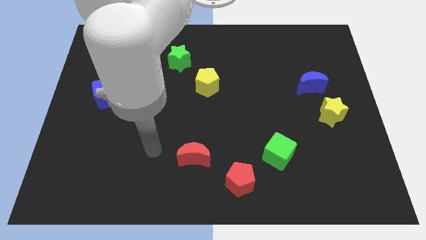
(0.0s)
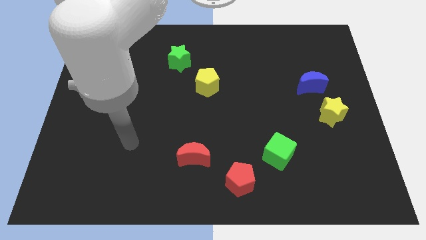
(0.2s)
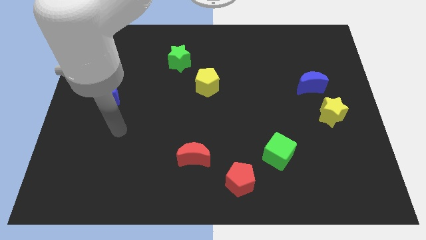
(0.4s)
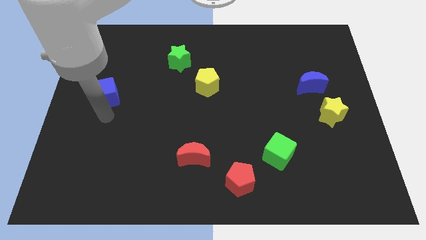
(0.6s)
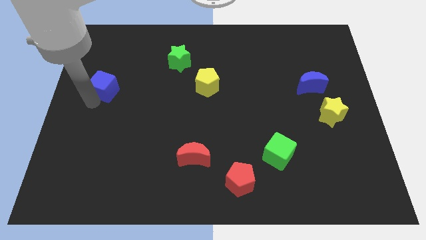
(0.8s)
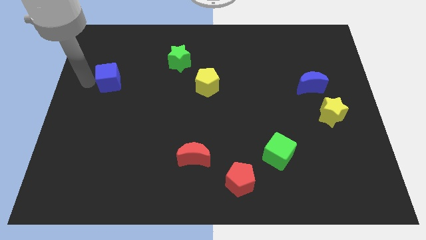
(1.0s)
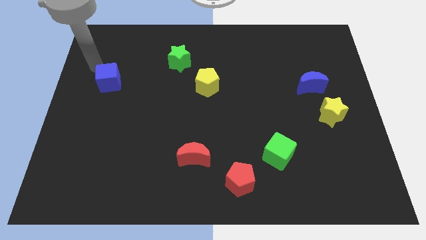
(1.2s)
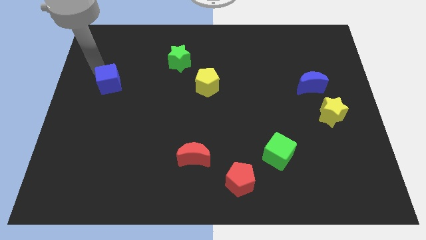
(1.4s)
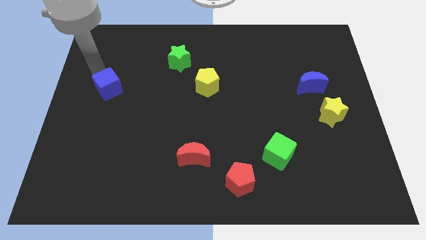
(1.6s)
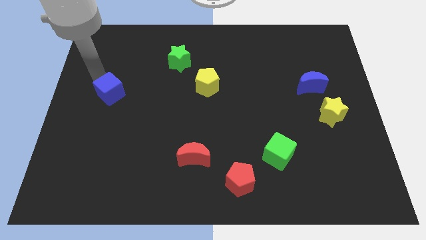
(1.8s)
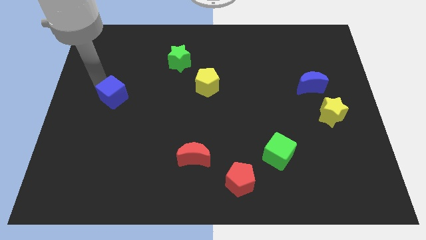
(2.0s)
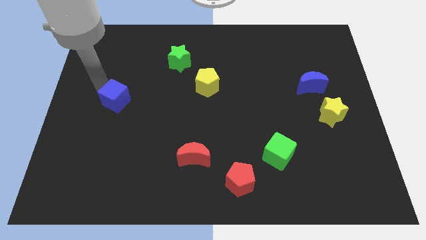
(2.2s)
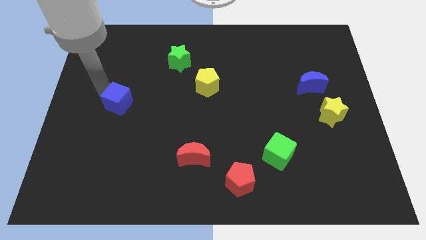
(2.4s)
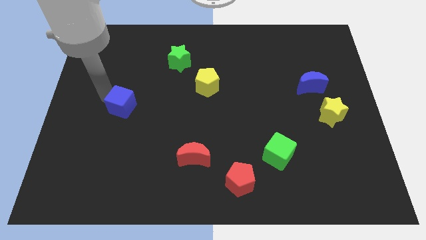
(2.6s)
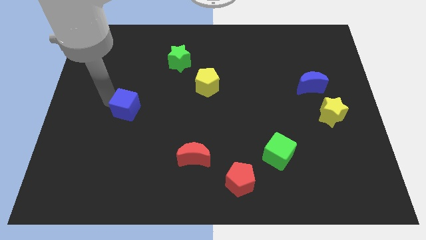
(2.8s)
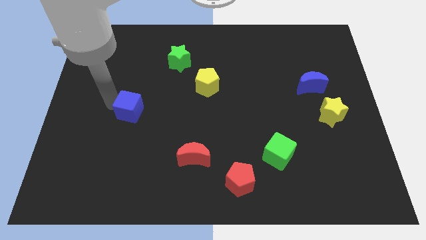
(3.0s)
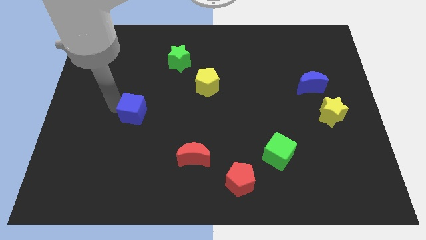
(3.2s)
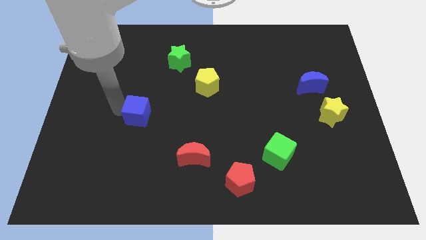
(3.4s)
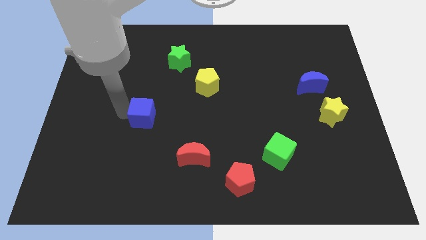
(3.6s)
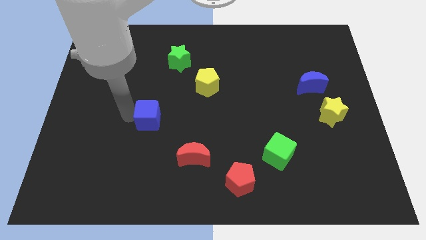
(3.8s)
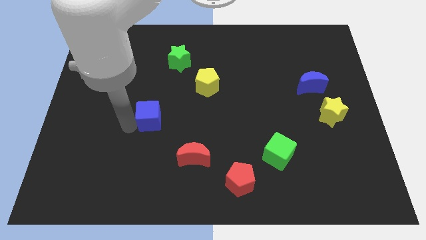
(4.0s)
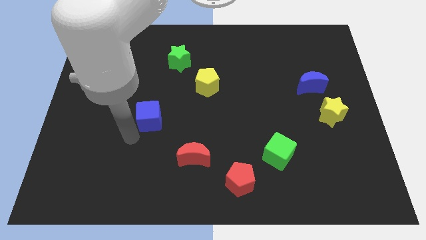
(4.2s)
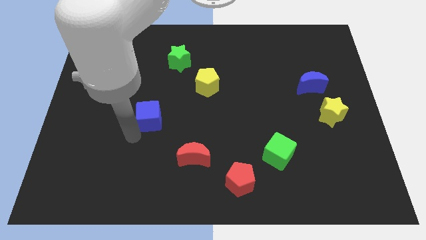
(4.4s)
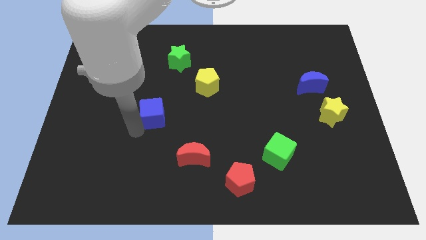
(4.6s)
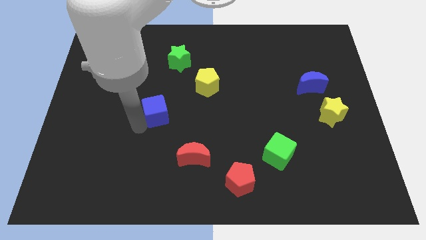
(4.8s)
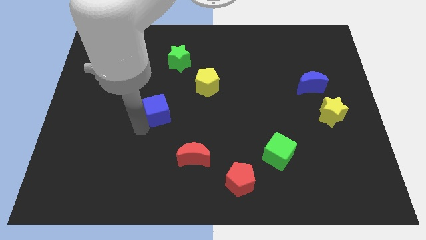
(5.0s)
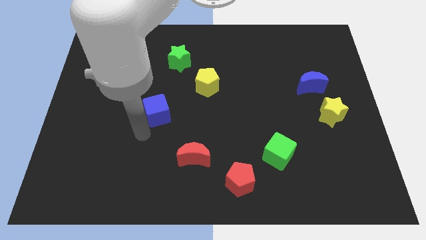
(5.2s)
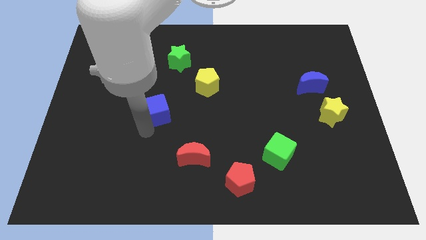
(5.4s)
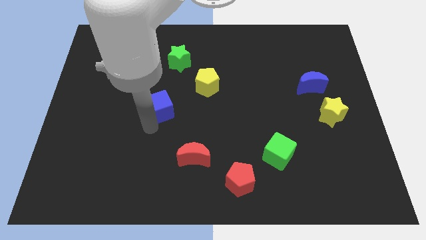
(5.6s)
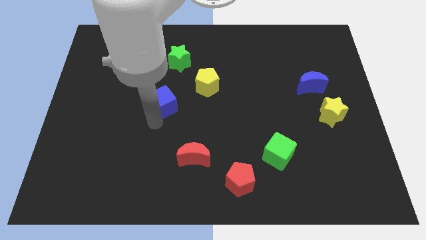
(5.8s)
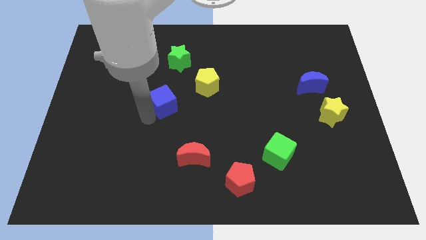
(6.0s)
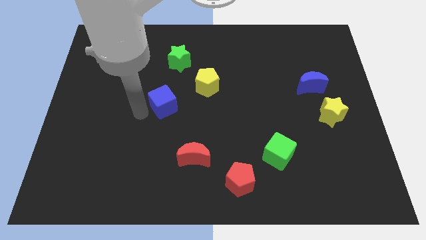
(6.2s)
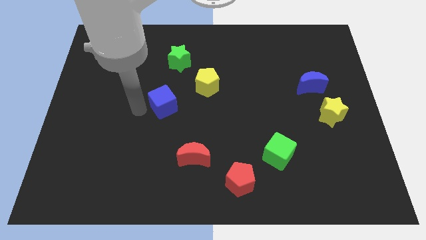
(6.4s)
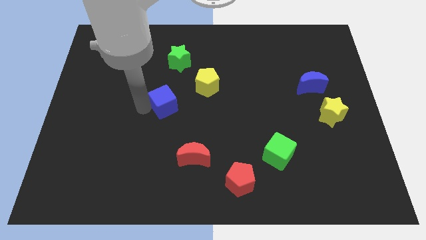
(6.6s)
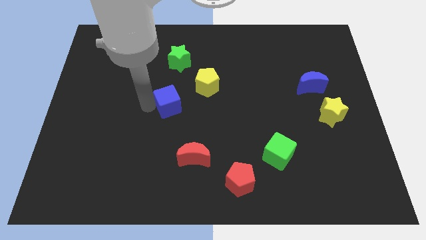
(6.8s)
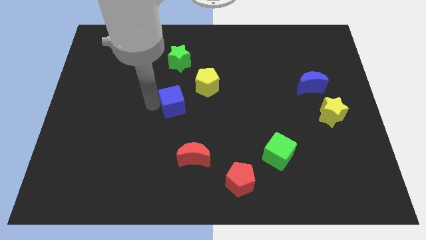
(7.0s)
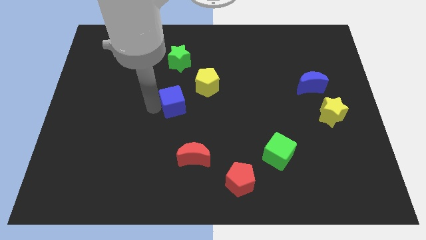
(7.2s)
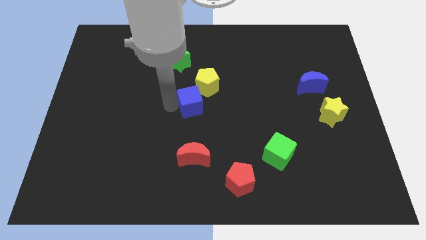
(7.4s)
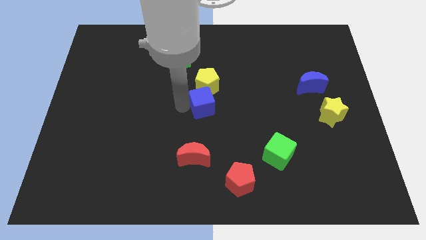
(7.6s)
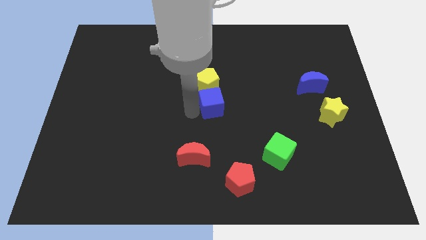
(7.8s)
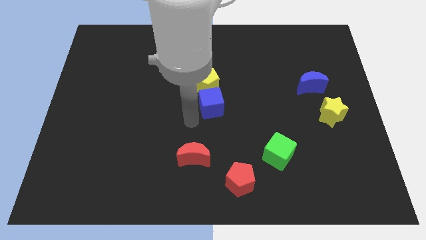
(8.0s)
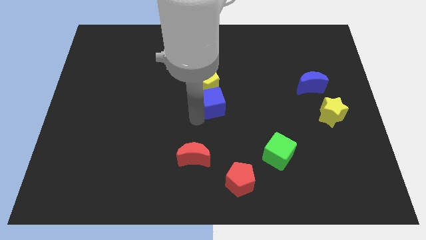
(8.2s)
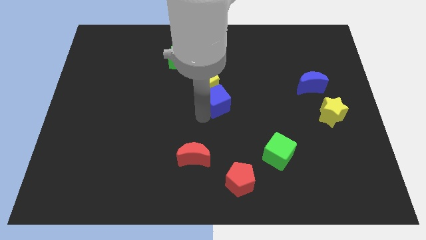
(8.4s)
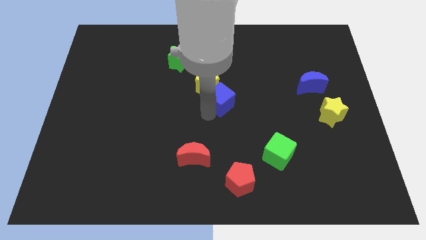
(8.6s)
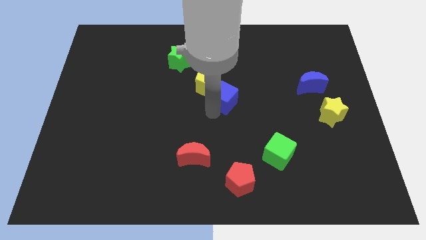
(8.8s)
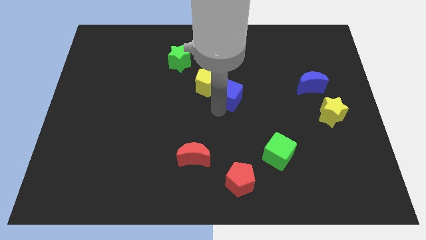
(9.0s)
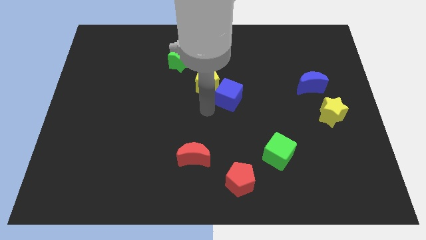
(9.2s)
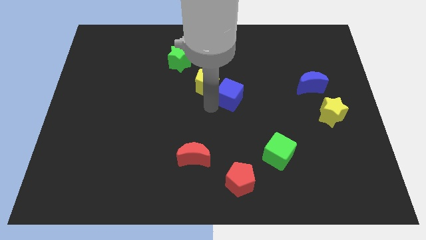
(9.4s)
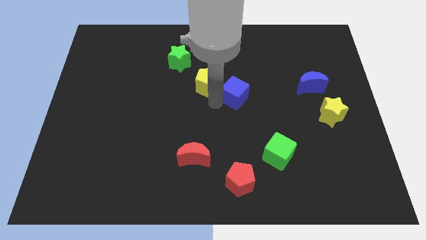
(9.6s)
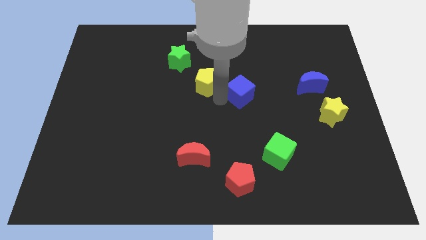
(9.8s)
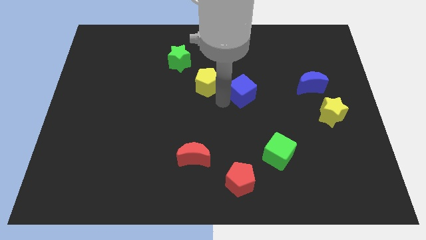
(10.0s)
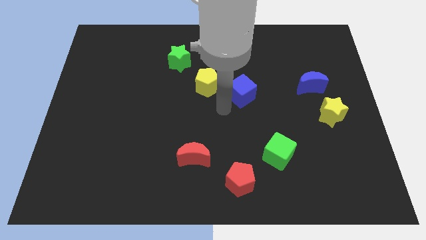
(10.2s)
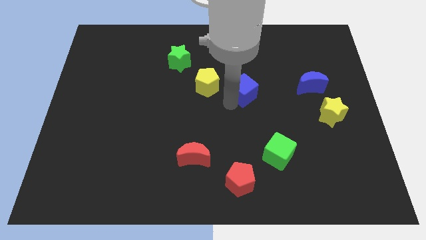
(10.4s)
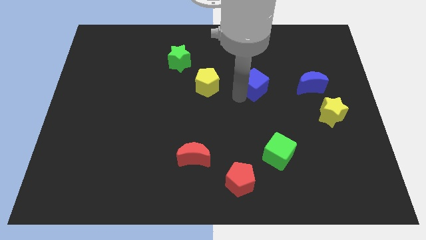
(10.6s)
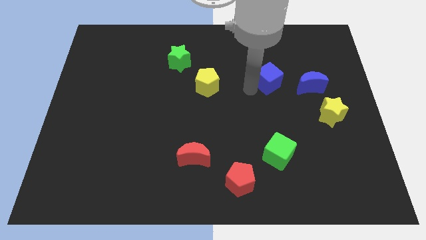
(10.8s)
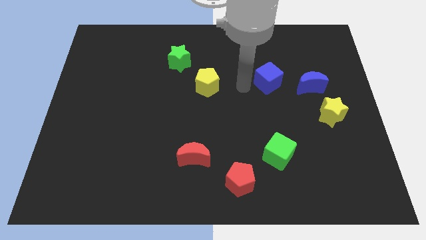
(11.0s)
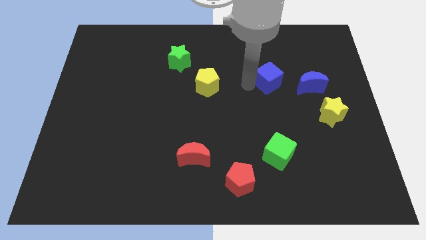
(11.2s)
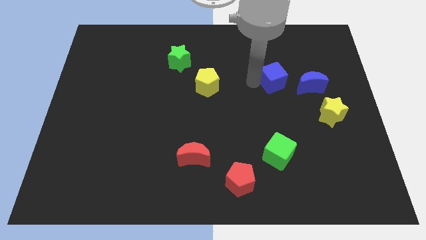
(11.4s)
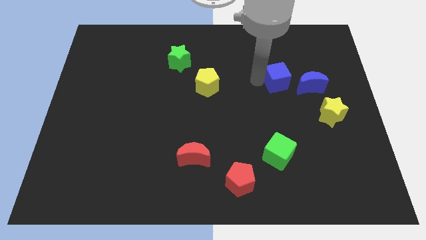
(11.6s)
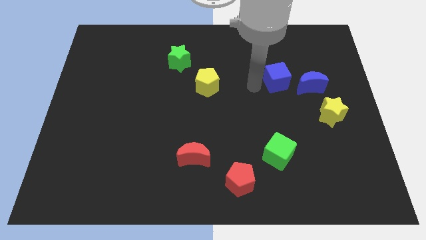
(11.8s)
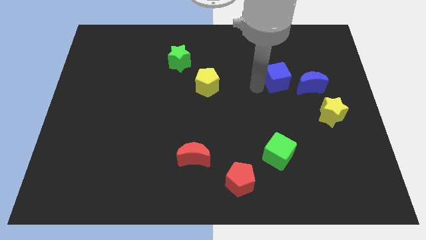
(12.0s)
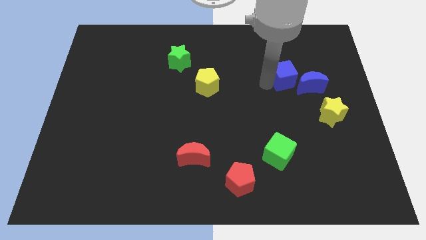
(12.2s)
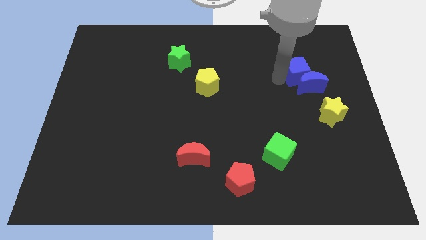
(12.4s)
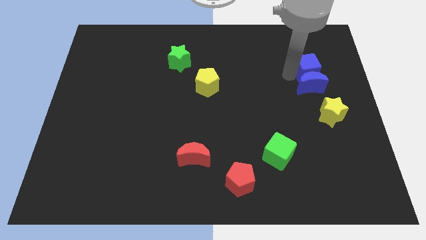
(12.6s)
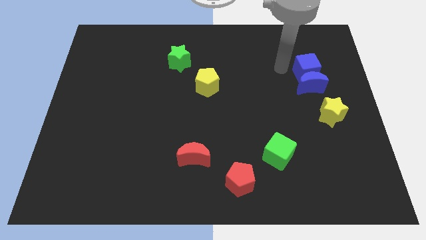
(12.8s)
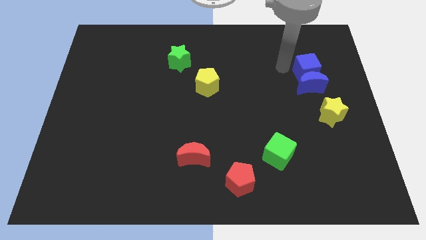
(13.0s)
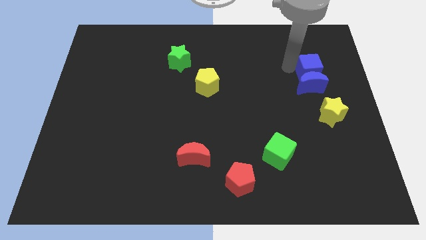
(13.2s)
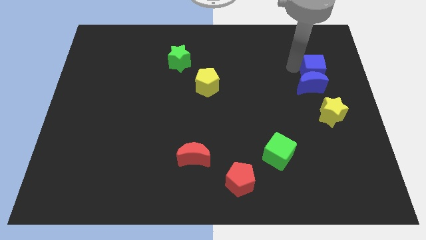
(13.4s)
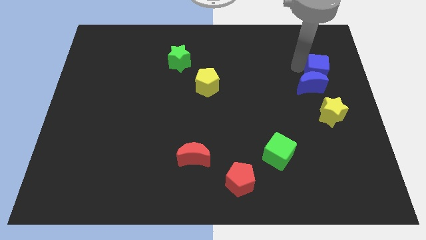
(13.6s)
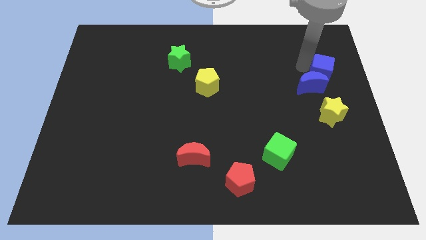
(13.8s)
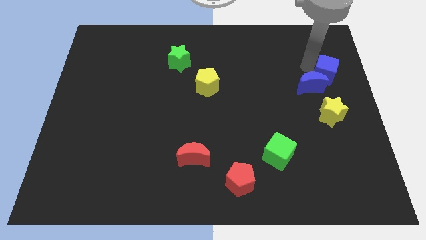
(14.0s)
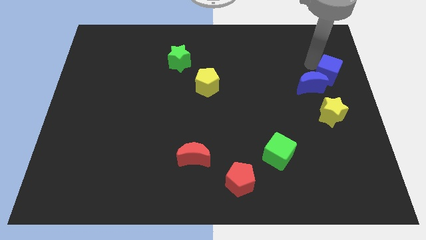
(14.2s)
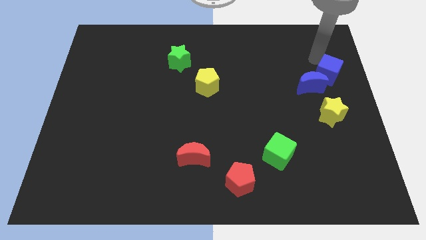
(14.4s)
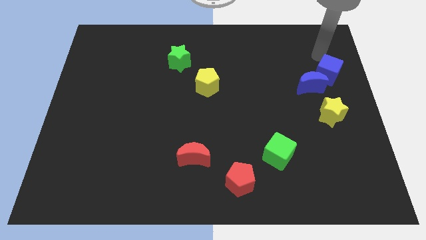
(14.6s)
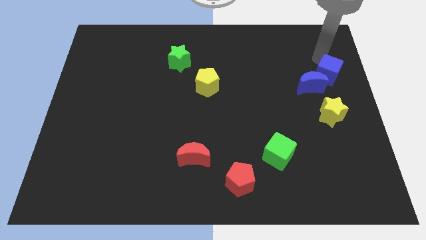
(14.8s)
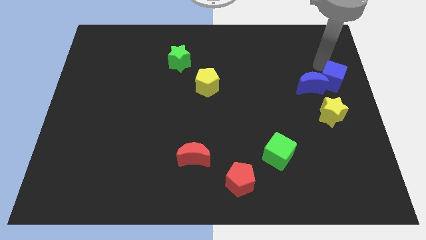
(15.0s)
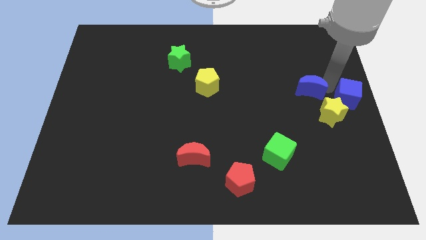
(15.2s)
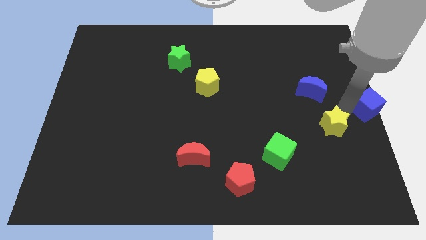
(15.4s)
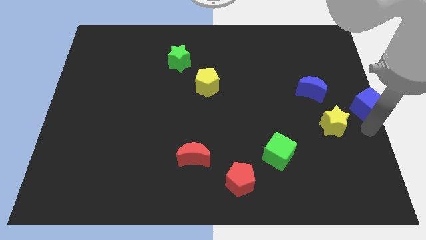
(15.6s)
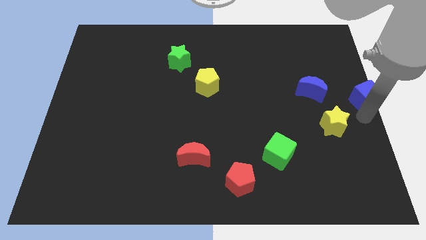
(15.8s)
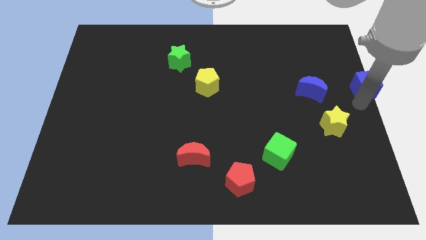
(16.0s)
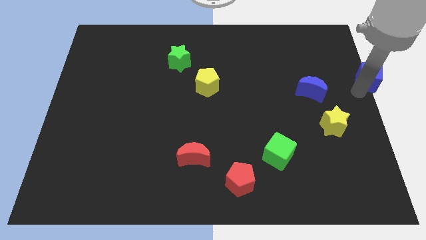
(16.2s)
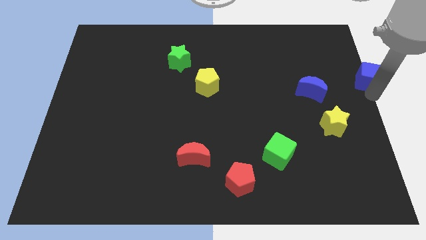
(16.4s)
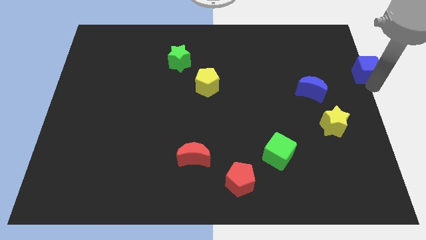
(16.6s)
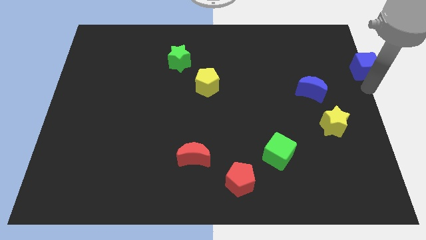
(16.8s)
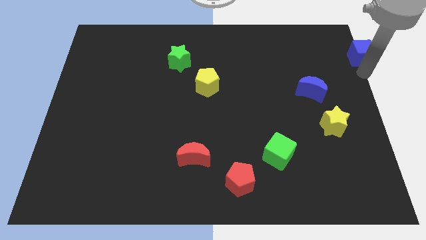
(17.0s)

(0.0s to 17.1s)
push the blue cube to the top right of the board
